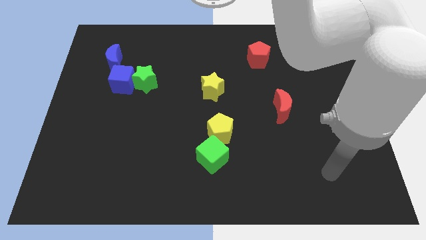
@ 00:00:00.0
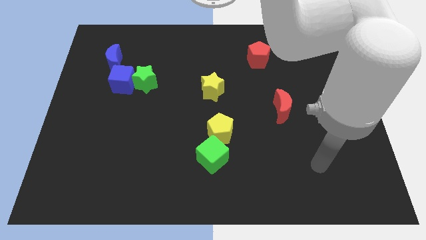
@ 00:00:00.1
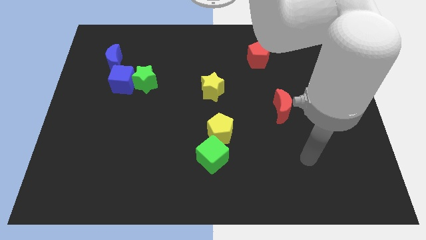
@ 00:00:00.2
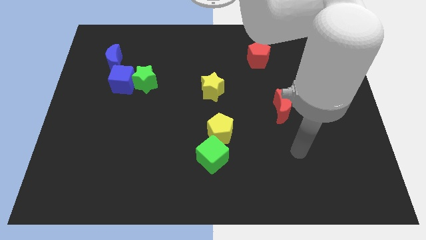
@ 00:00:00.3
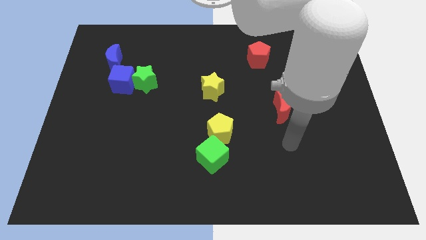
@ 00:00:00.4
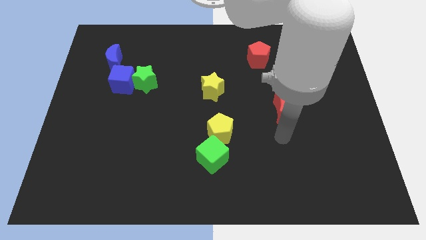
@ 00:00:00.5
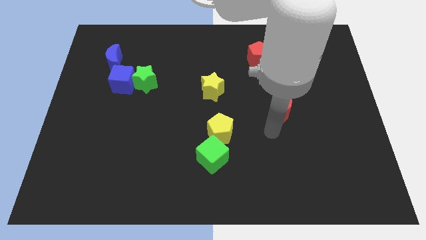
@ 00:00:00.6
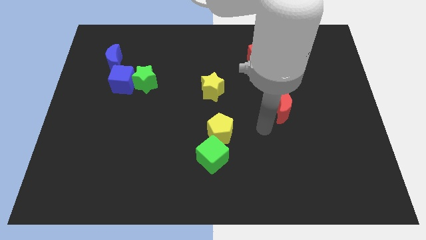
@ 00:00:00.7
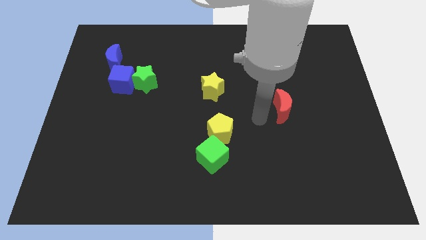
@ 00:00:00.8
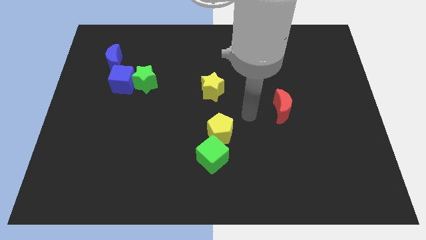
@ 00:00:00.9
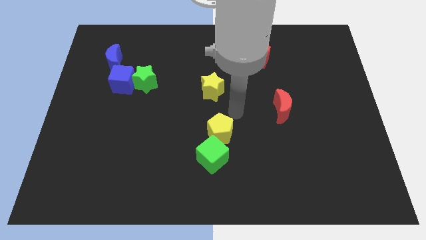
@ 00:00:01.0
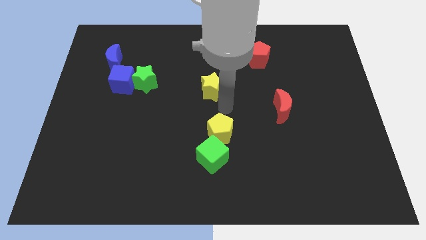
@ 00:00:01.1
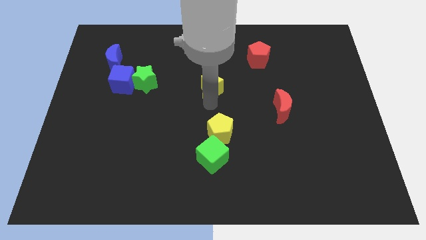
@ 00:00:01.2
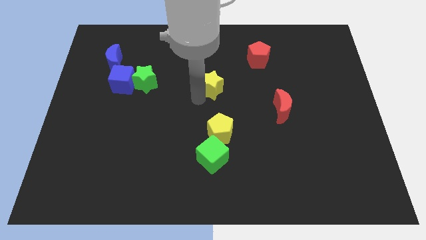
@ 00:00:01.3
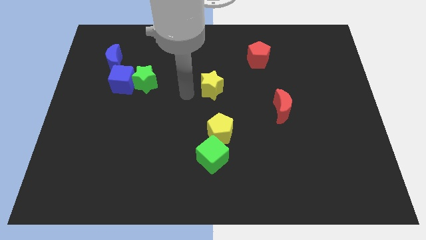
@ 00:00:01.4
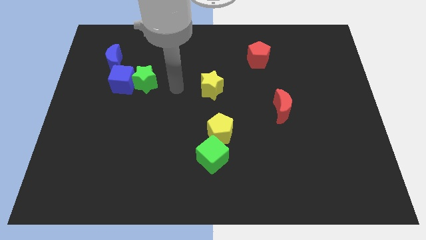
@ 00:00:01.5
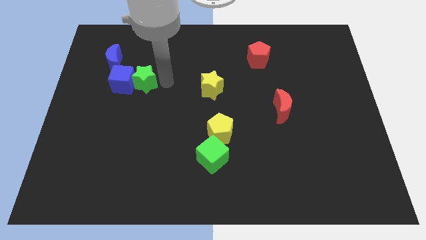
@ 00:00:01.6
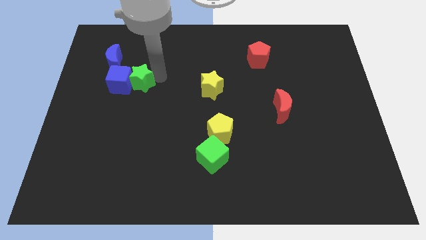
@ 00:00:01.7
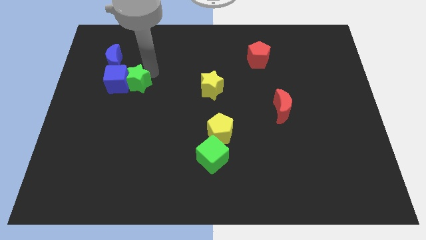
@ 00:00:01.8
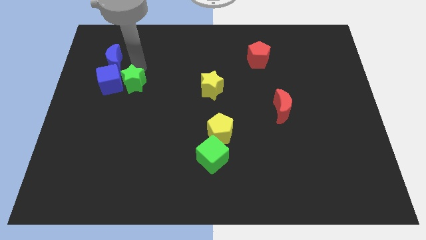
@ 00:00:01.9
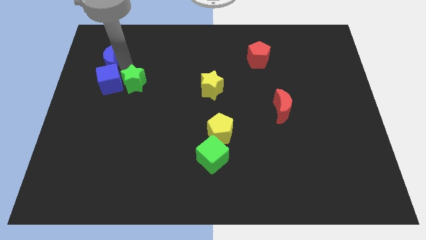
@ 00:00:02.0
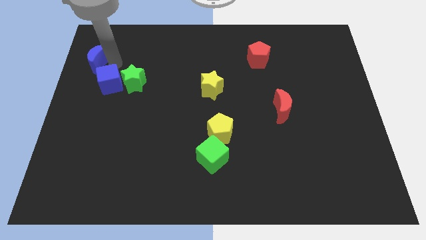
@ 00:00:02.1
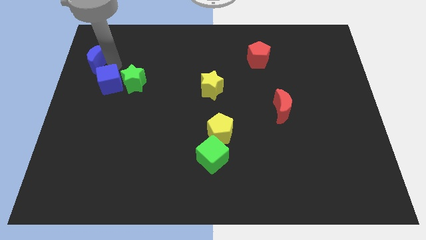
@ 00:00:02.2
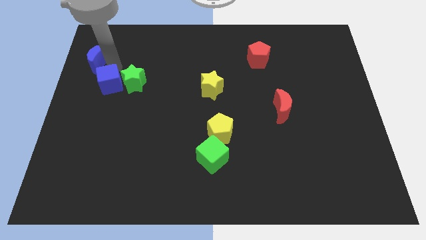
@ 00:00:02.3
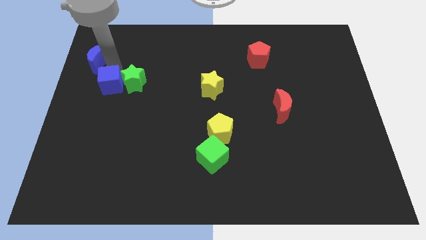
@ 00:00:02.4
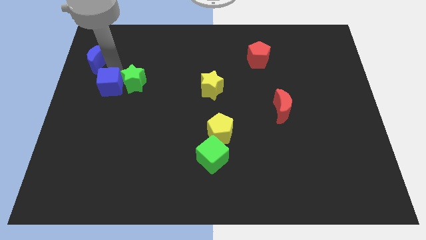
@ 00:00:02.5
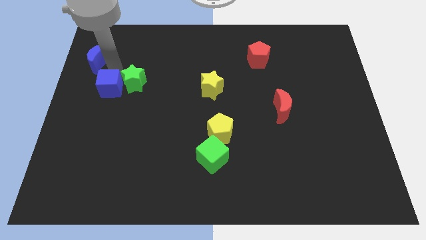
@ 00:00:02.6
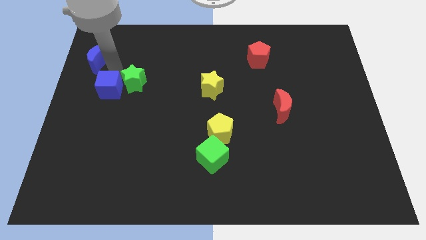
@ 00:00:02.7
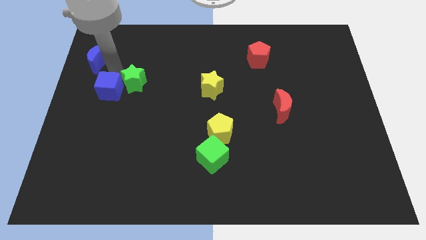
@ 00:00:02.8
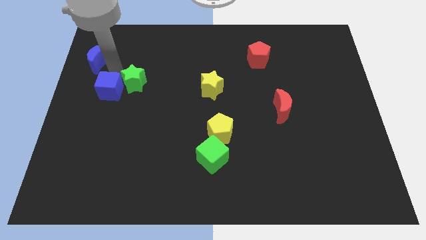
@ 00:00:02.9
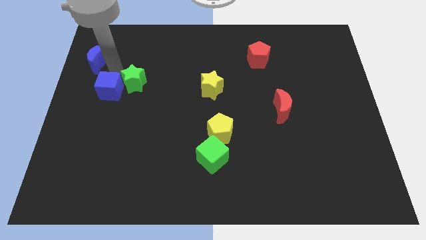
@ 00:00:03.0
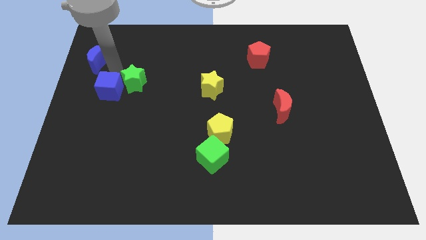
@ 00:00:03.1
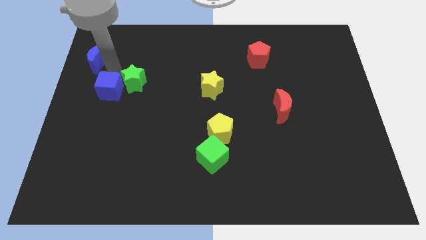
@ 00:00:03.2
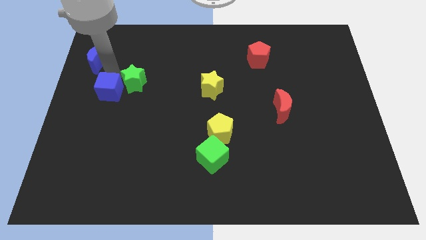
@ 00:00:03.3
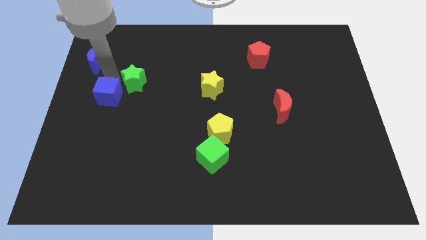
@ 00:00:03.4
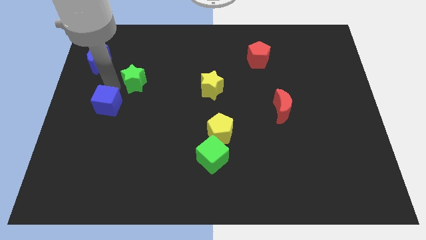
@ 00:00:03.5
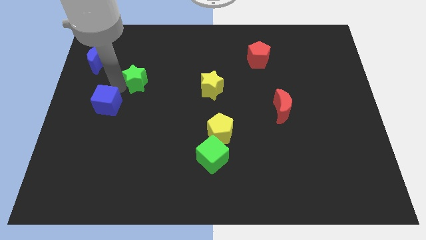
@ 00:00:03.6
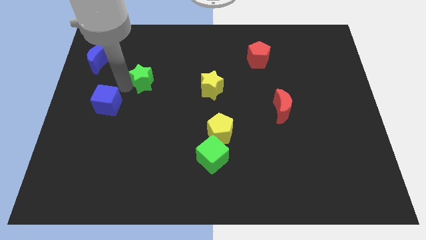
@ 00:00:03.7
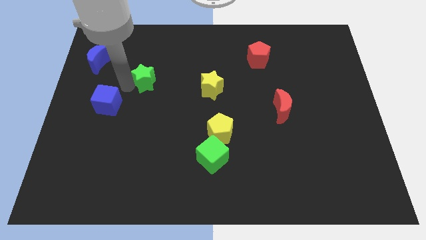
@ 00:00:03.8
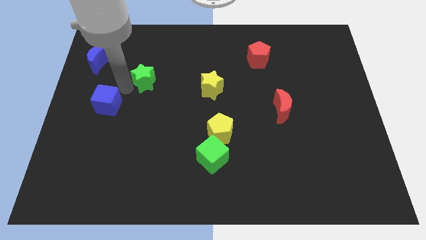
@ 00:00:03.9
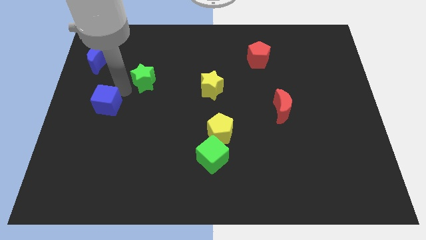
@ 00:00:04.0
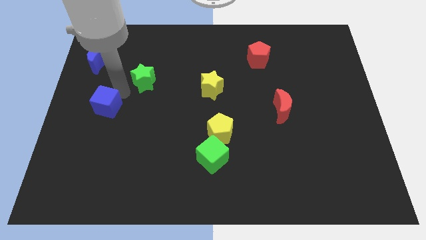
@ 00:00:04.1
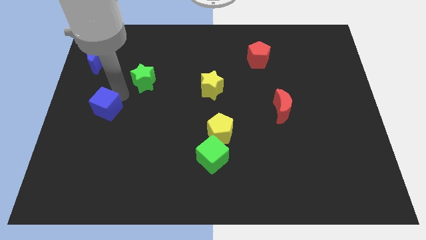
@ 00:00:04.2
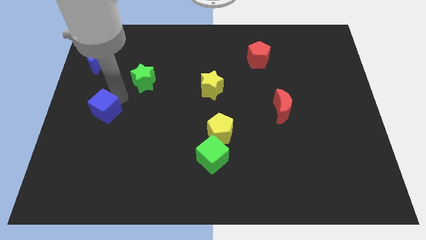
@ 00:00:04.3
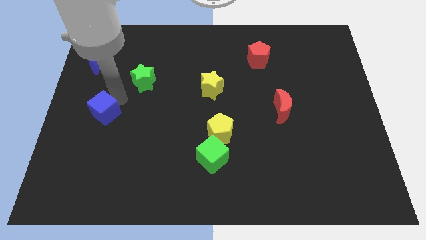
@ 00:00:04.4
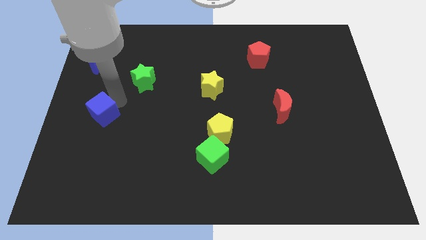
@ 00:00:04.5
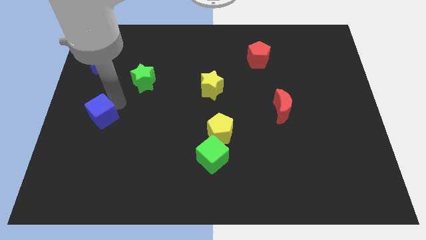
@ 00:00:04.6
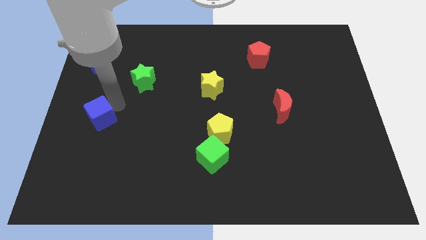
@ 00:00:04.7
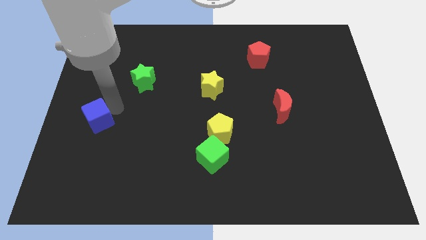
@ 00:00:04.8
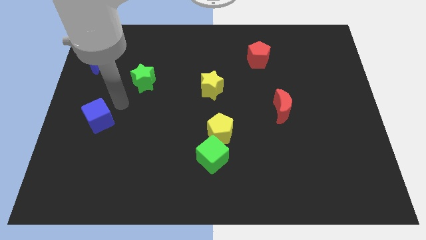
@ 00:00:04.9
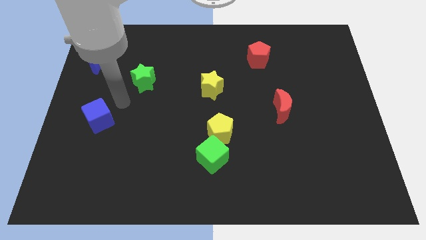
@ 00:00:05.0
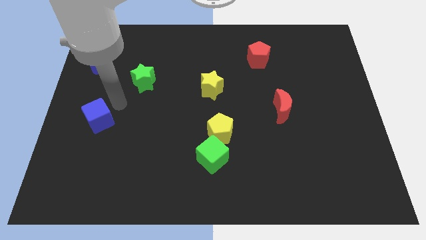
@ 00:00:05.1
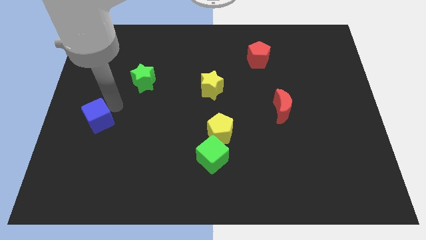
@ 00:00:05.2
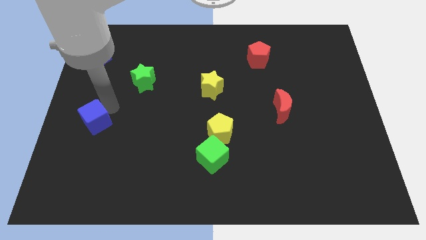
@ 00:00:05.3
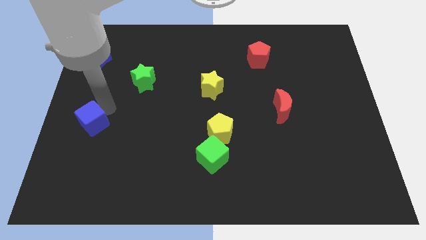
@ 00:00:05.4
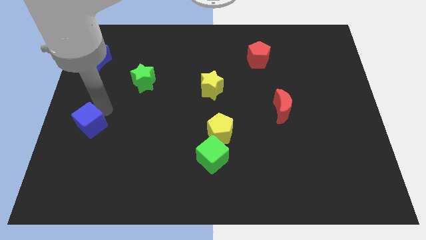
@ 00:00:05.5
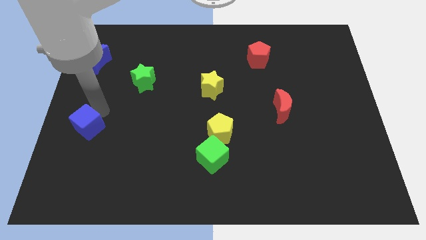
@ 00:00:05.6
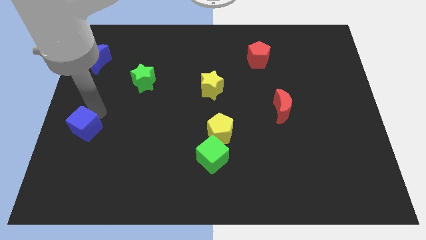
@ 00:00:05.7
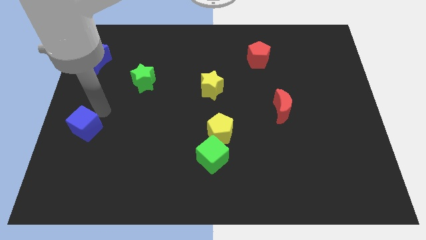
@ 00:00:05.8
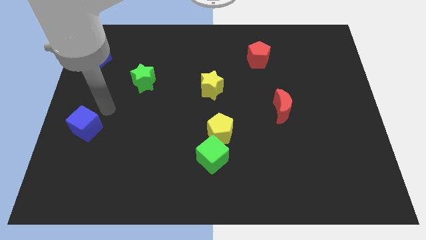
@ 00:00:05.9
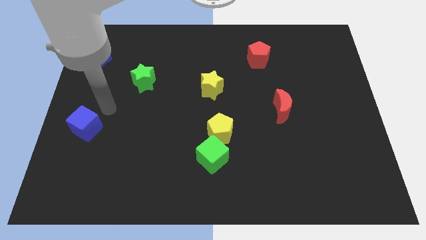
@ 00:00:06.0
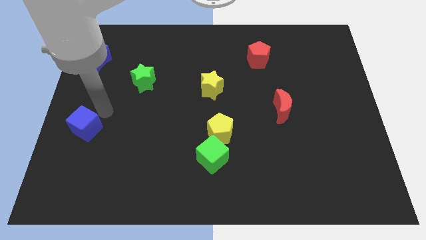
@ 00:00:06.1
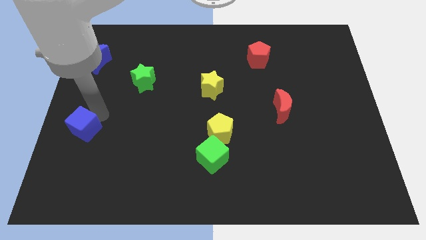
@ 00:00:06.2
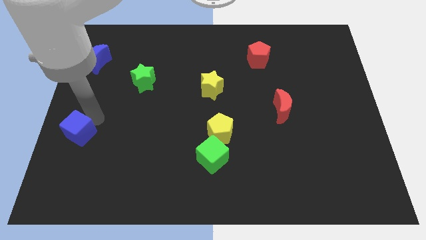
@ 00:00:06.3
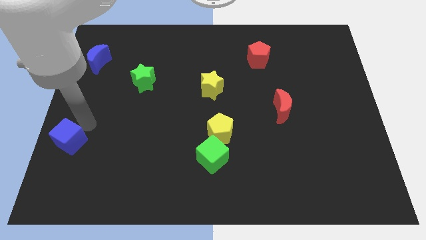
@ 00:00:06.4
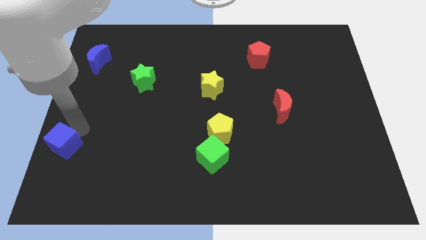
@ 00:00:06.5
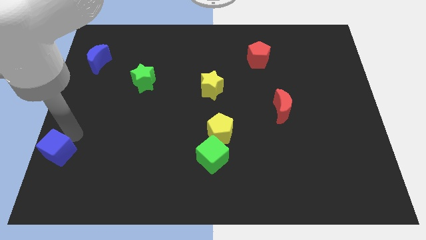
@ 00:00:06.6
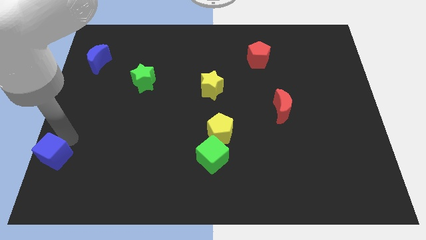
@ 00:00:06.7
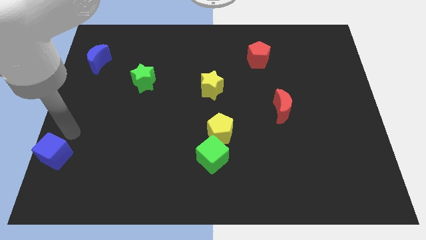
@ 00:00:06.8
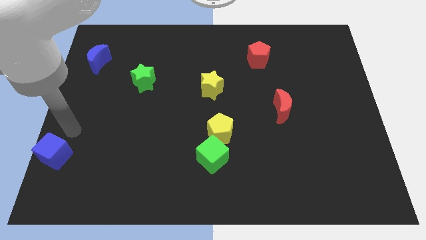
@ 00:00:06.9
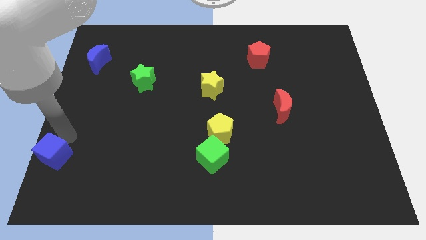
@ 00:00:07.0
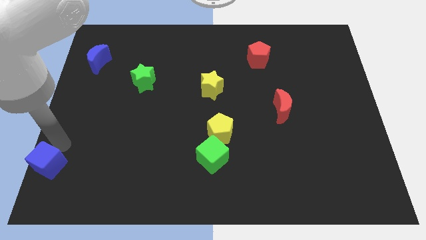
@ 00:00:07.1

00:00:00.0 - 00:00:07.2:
slide the blue cube to the bottom left
